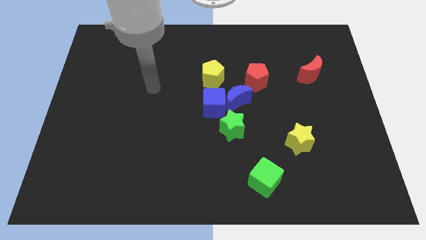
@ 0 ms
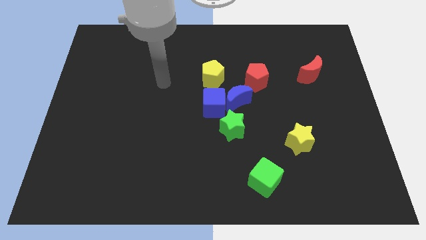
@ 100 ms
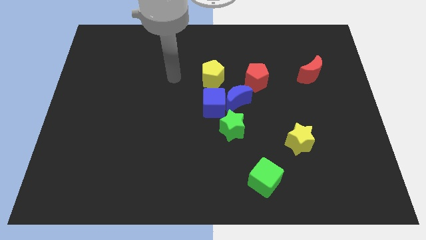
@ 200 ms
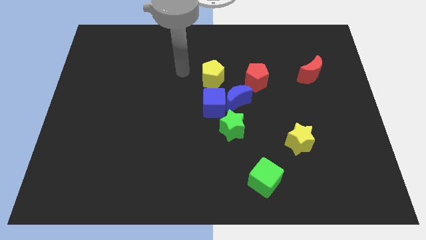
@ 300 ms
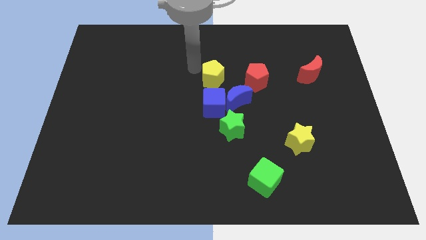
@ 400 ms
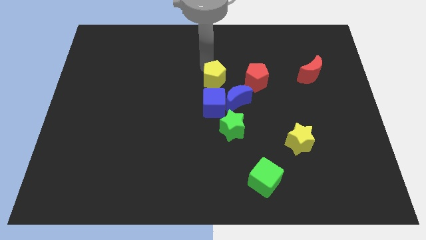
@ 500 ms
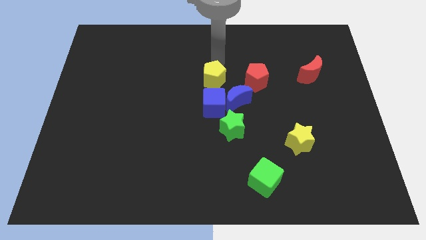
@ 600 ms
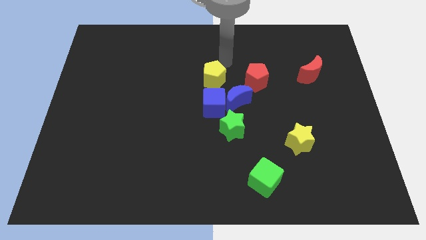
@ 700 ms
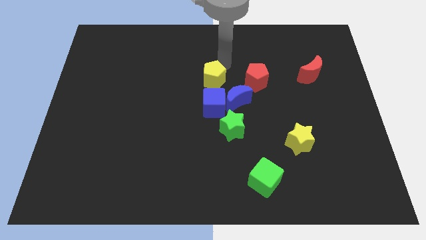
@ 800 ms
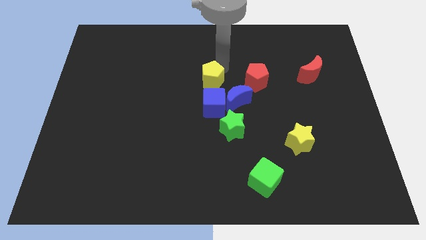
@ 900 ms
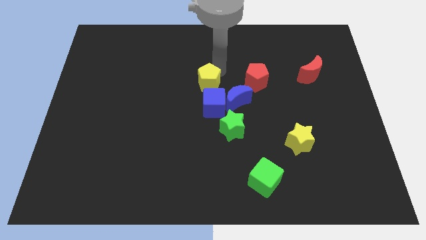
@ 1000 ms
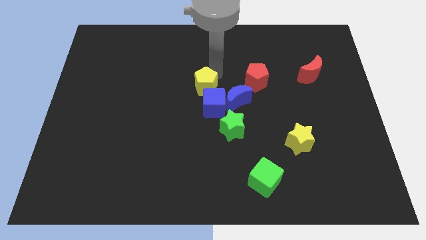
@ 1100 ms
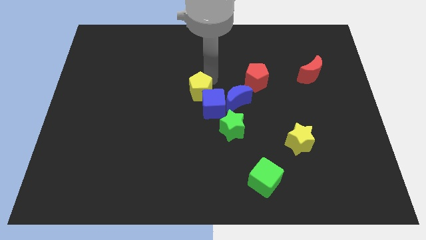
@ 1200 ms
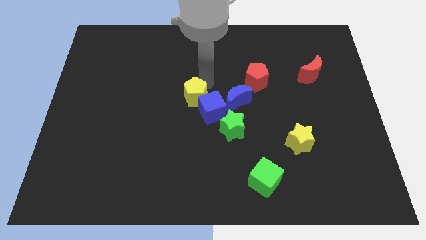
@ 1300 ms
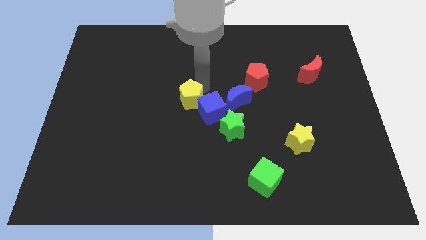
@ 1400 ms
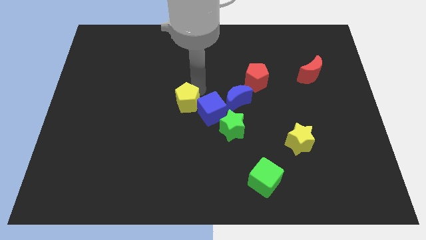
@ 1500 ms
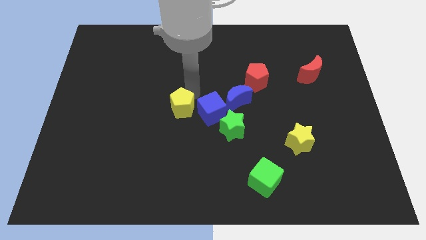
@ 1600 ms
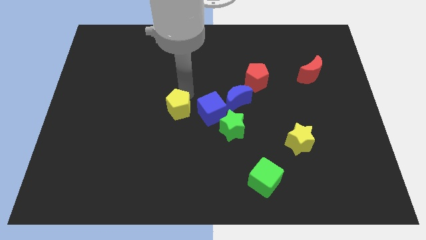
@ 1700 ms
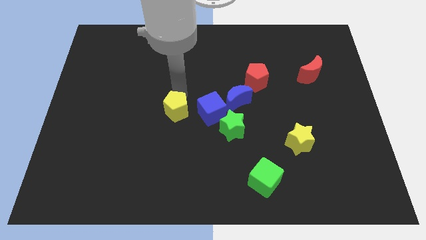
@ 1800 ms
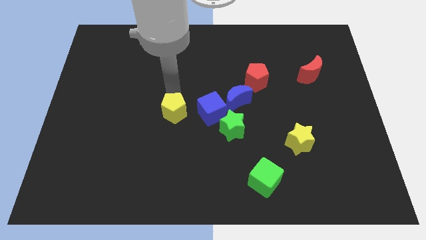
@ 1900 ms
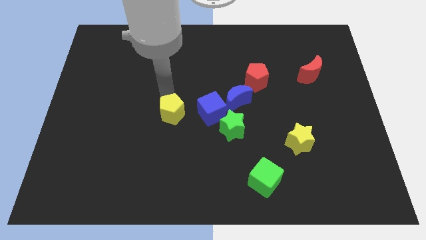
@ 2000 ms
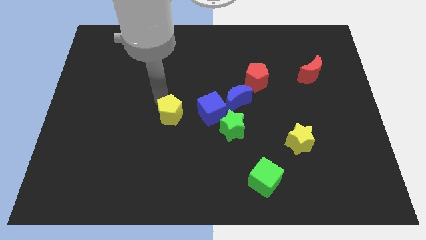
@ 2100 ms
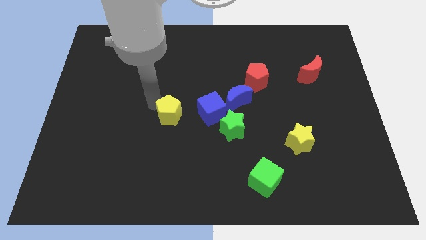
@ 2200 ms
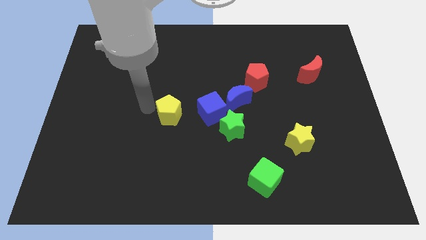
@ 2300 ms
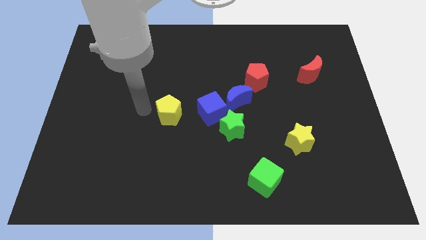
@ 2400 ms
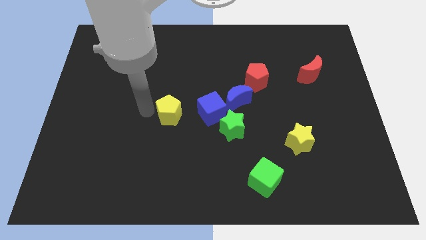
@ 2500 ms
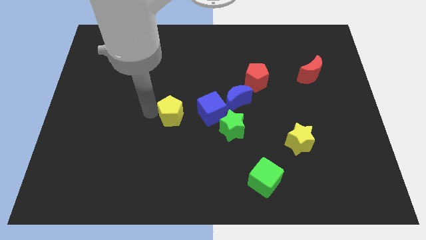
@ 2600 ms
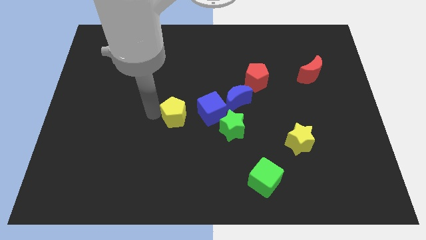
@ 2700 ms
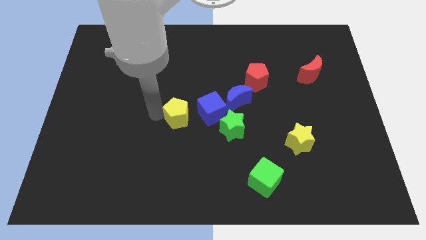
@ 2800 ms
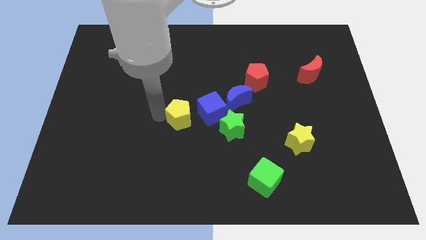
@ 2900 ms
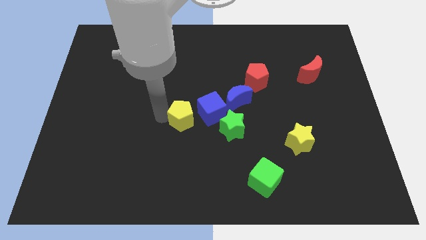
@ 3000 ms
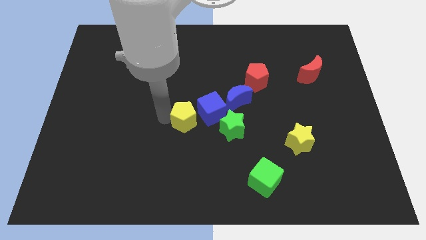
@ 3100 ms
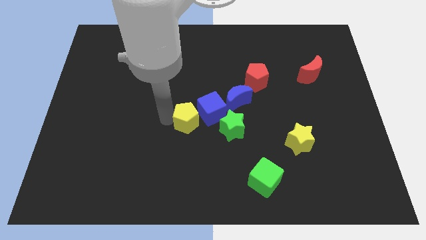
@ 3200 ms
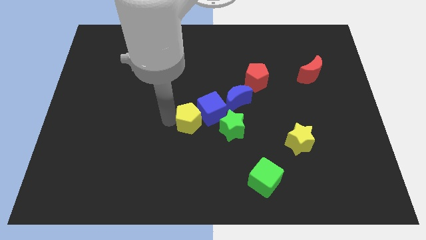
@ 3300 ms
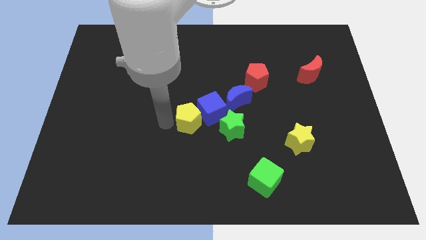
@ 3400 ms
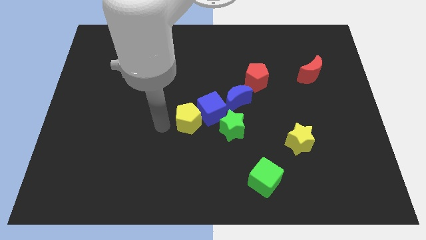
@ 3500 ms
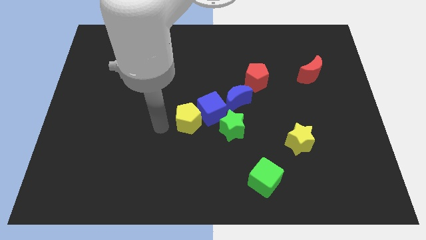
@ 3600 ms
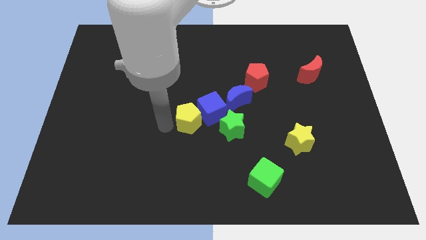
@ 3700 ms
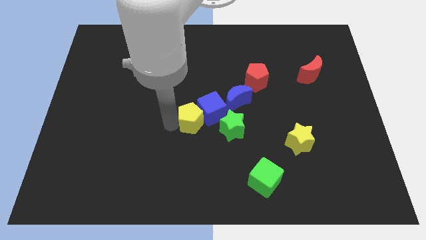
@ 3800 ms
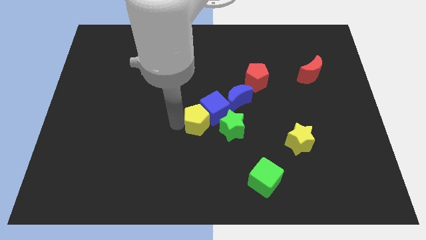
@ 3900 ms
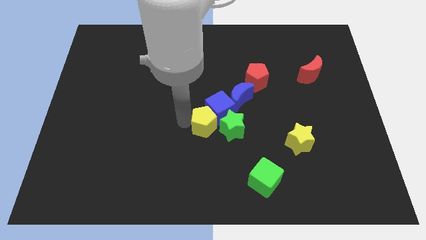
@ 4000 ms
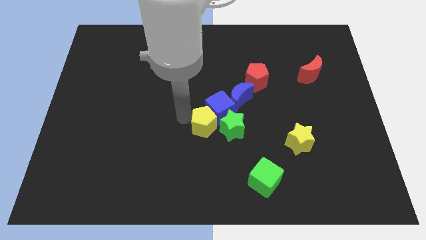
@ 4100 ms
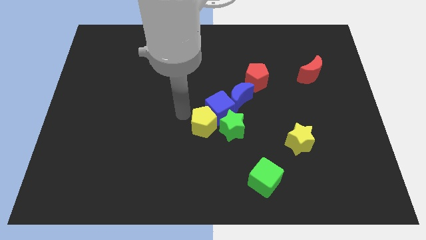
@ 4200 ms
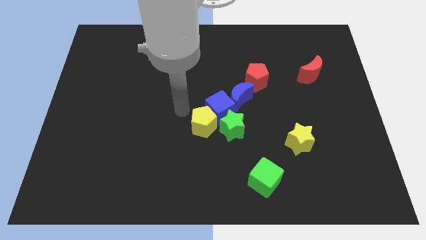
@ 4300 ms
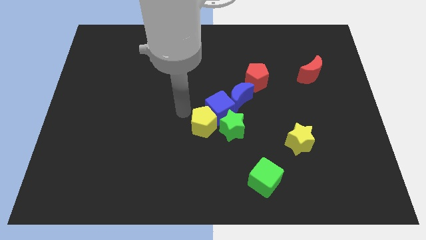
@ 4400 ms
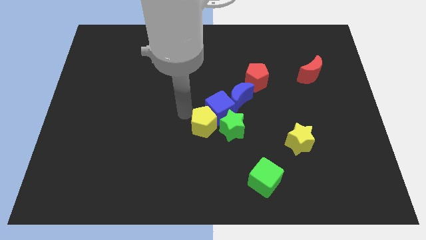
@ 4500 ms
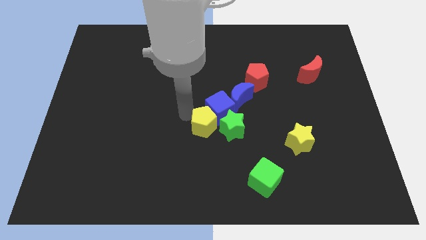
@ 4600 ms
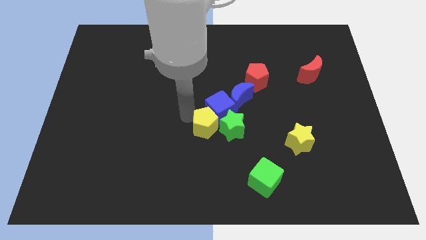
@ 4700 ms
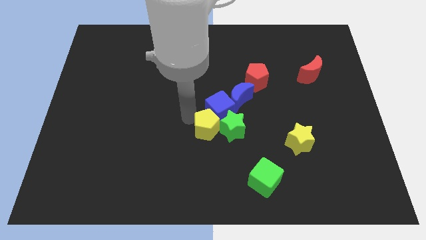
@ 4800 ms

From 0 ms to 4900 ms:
slide the yellow pentagon close to the green star

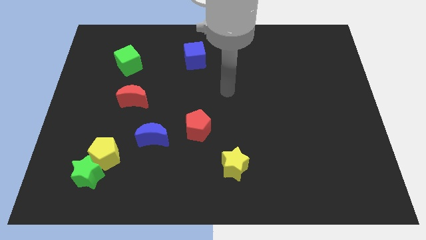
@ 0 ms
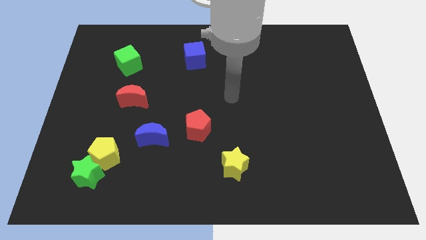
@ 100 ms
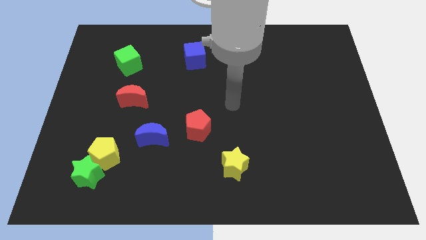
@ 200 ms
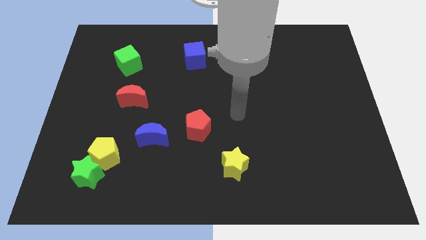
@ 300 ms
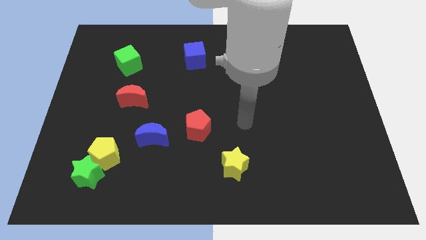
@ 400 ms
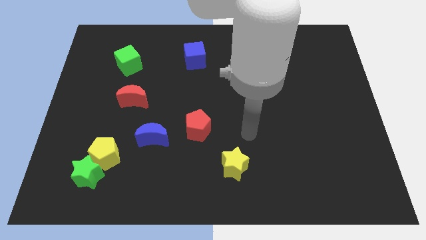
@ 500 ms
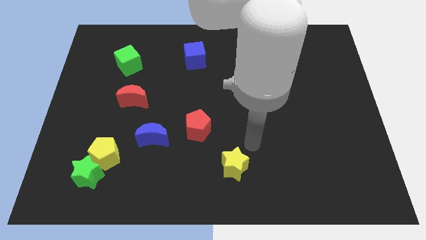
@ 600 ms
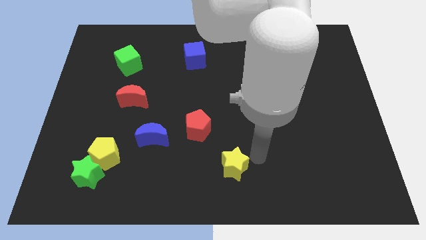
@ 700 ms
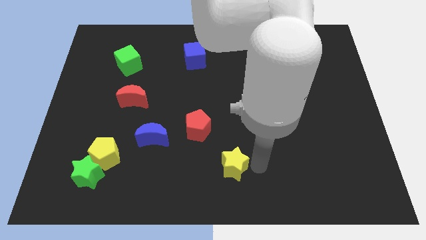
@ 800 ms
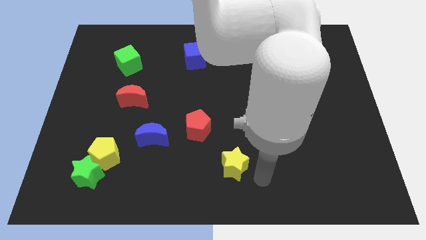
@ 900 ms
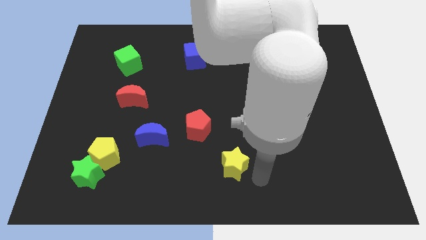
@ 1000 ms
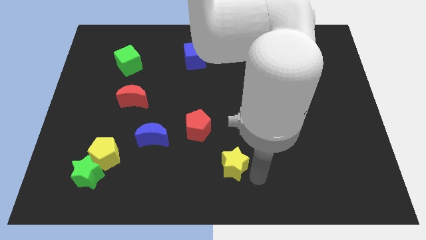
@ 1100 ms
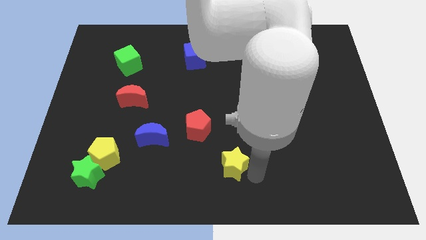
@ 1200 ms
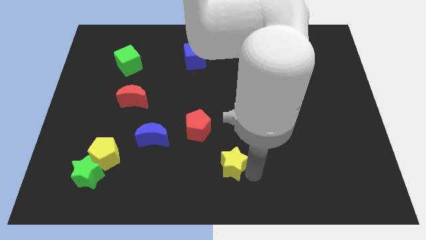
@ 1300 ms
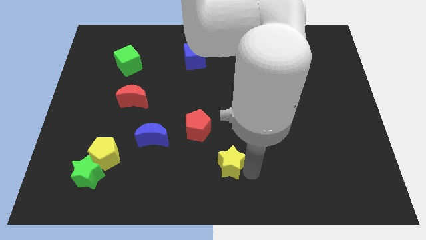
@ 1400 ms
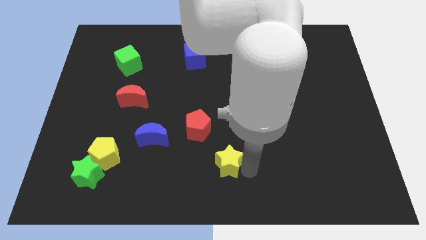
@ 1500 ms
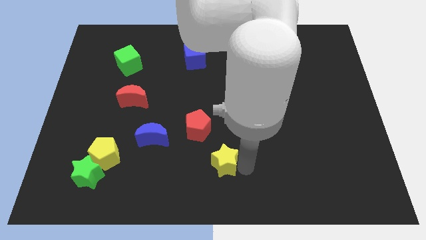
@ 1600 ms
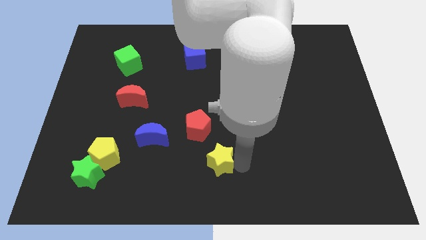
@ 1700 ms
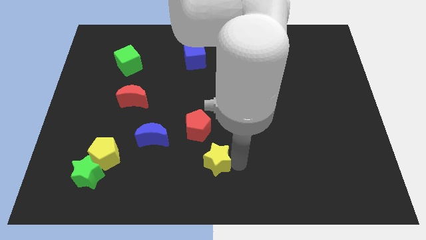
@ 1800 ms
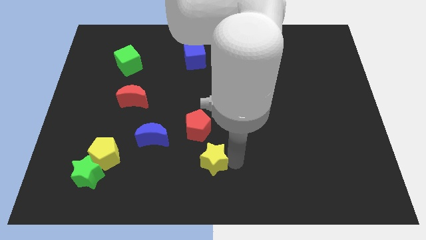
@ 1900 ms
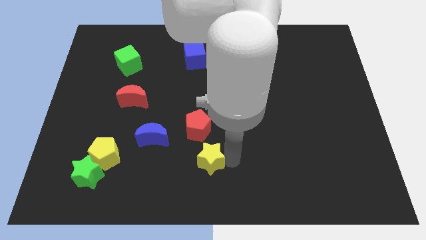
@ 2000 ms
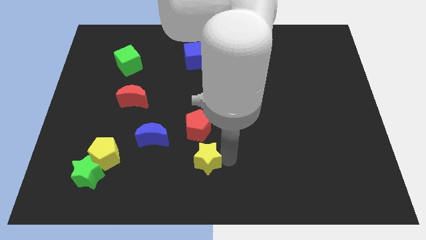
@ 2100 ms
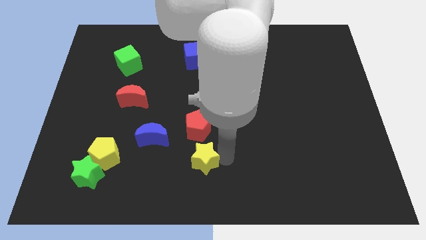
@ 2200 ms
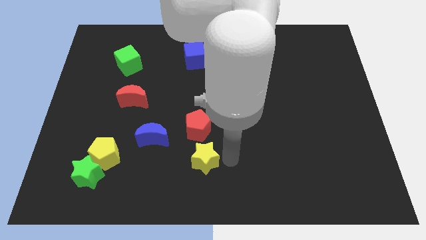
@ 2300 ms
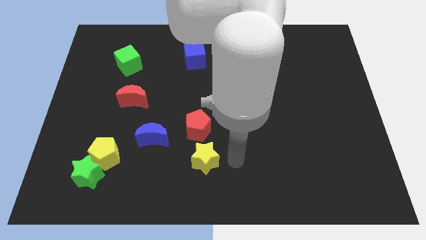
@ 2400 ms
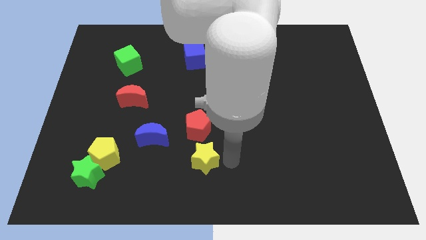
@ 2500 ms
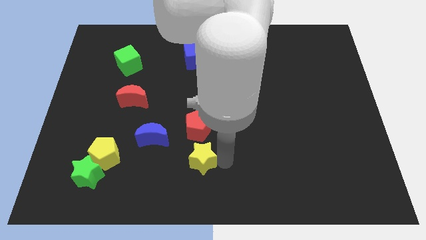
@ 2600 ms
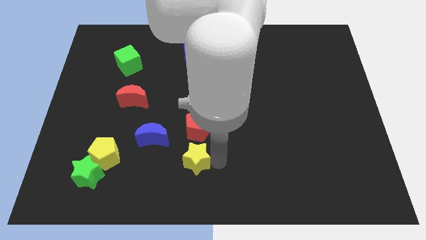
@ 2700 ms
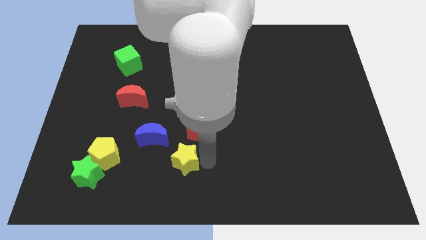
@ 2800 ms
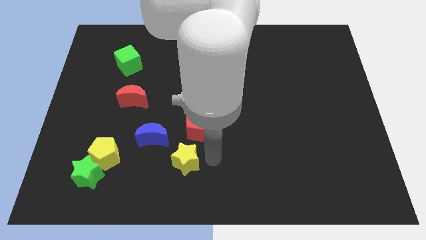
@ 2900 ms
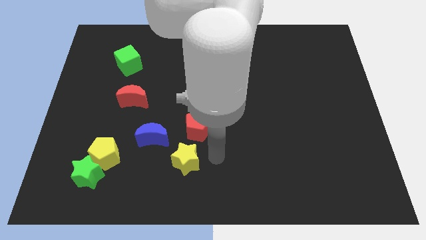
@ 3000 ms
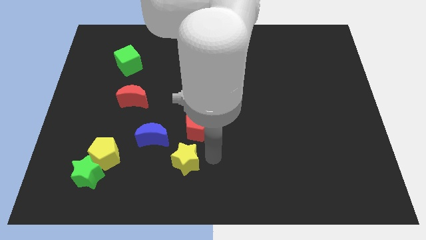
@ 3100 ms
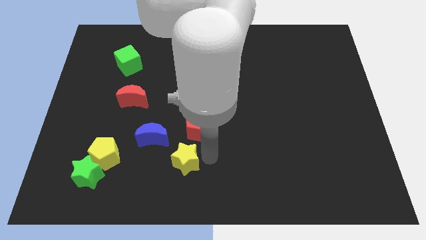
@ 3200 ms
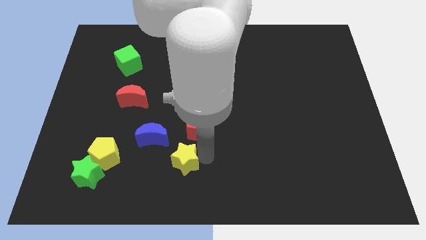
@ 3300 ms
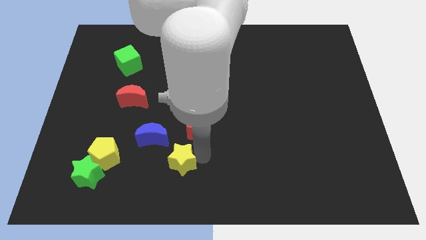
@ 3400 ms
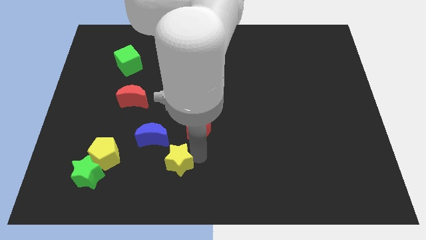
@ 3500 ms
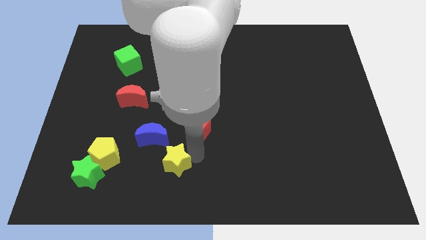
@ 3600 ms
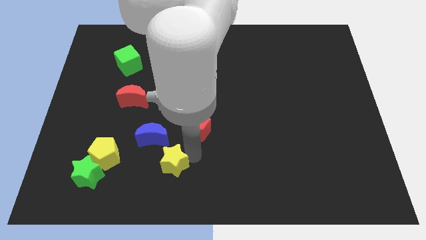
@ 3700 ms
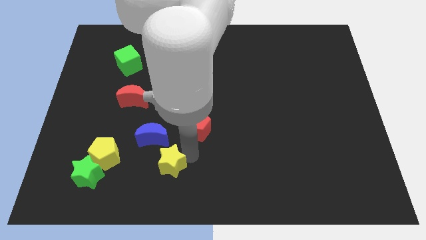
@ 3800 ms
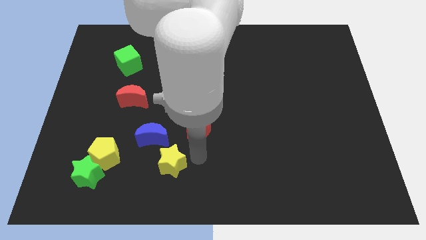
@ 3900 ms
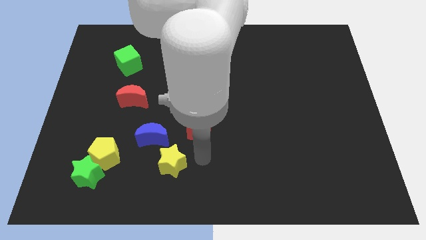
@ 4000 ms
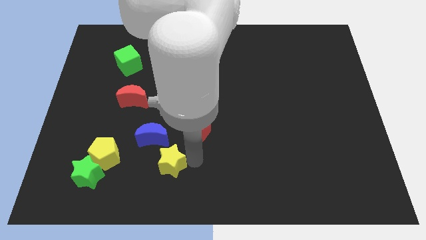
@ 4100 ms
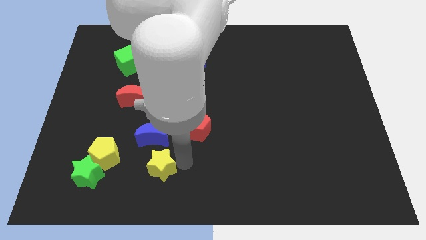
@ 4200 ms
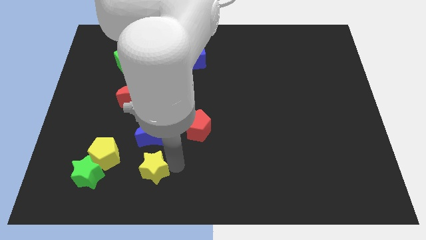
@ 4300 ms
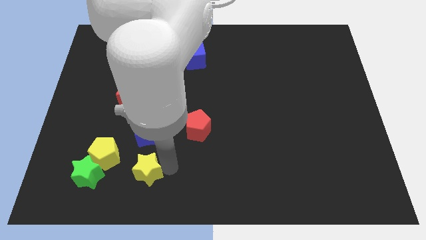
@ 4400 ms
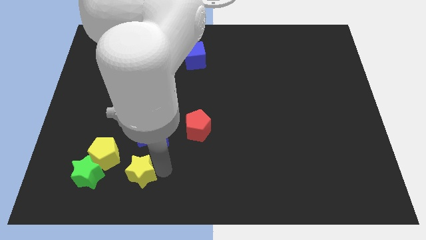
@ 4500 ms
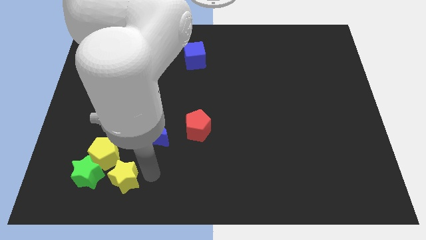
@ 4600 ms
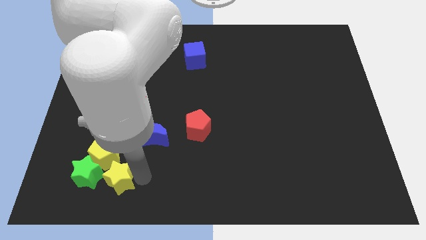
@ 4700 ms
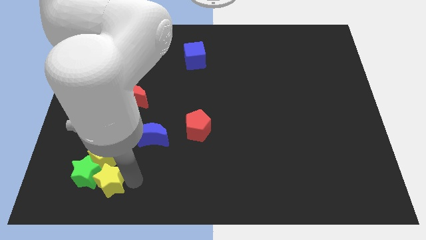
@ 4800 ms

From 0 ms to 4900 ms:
push the yellow star to the green star
